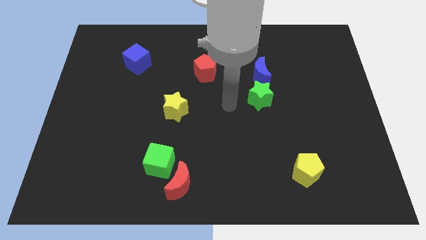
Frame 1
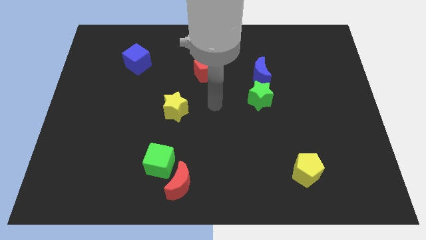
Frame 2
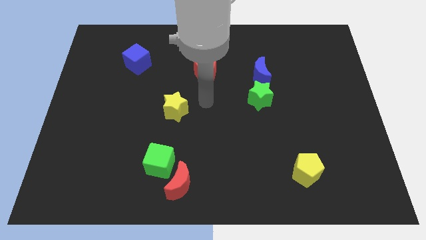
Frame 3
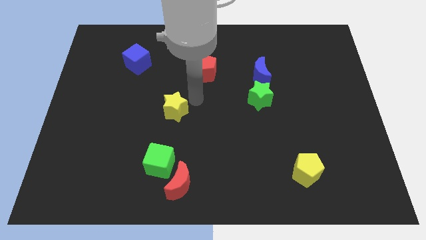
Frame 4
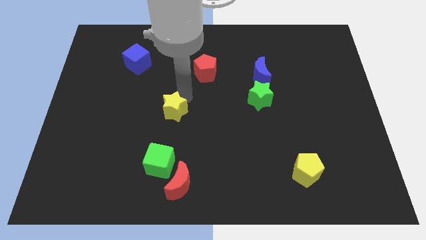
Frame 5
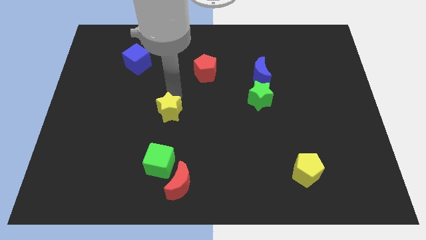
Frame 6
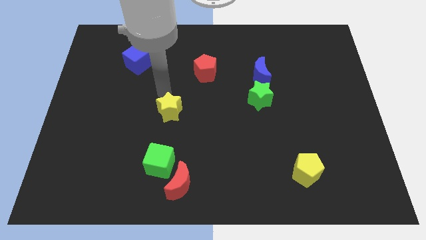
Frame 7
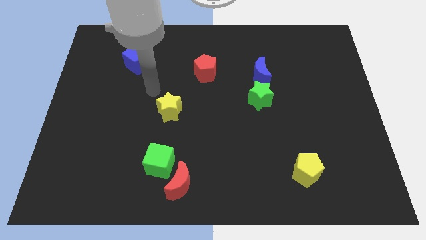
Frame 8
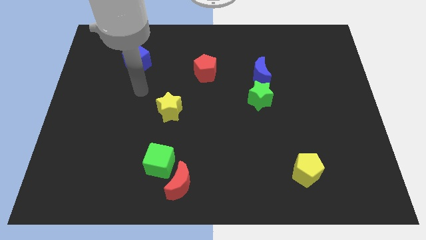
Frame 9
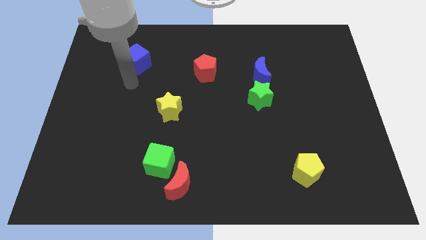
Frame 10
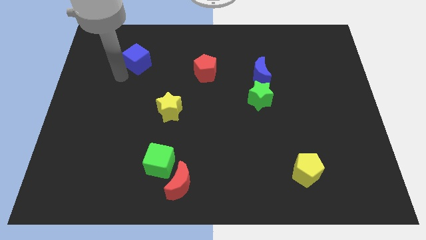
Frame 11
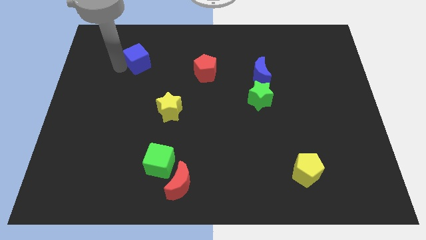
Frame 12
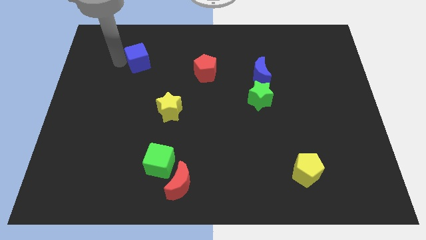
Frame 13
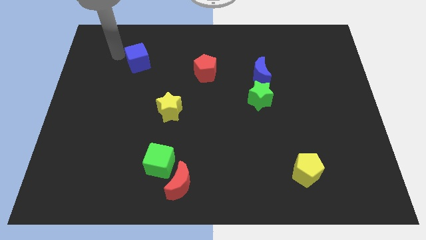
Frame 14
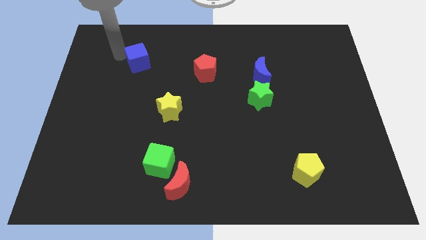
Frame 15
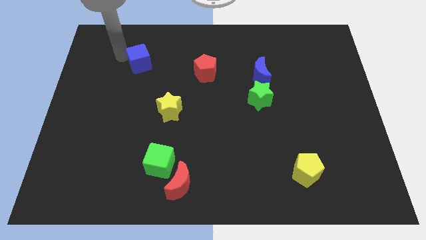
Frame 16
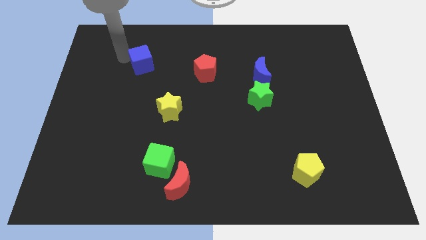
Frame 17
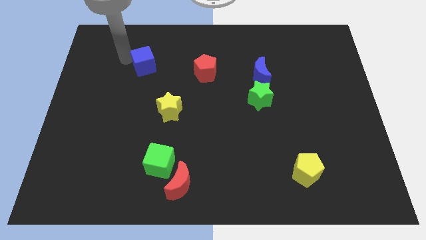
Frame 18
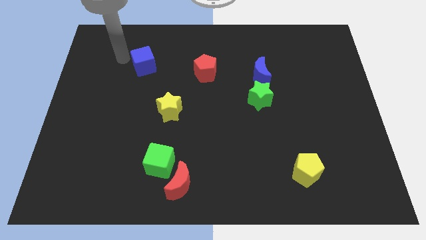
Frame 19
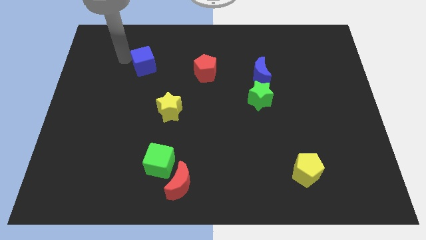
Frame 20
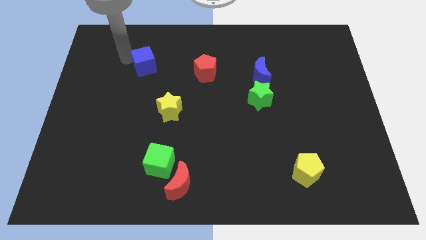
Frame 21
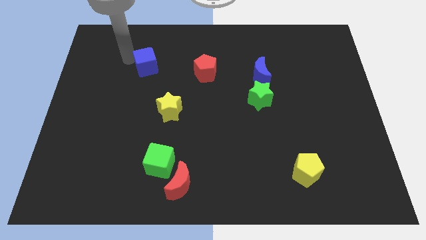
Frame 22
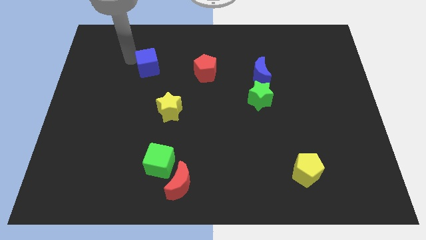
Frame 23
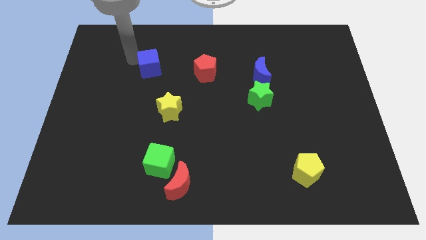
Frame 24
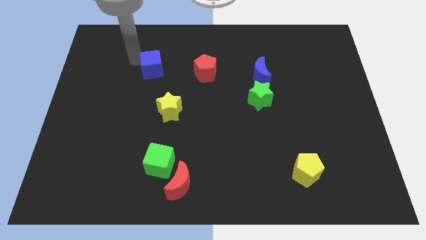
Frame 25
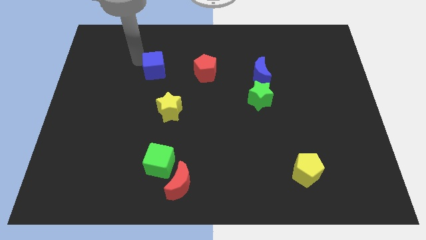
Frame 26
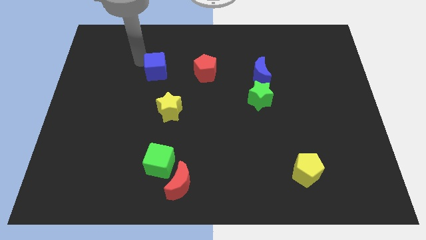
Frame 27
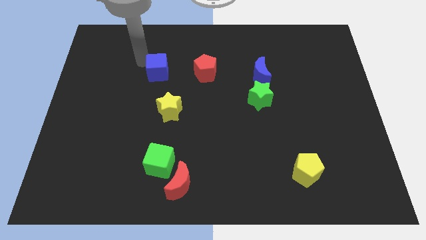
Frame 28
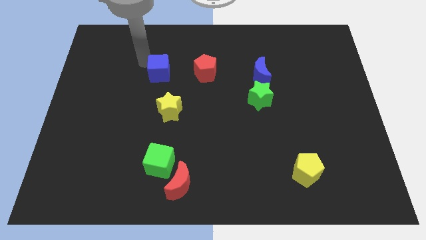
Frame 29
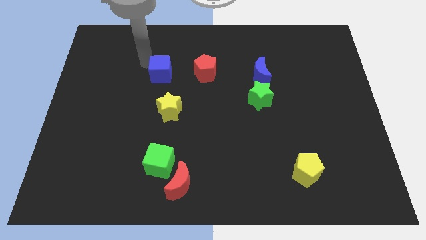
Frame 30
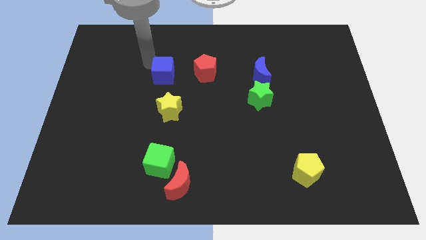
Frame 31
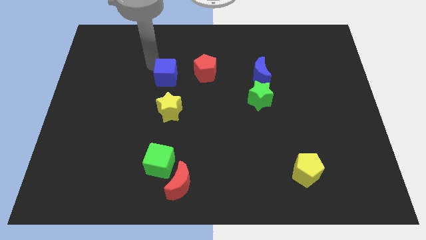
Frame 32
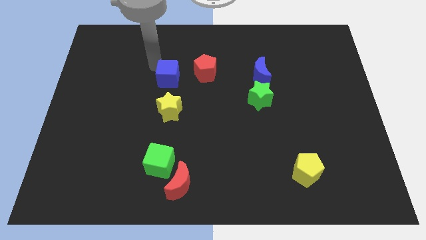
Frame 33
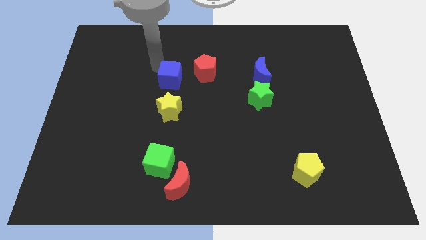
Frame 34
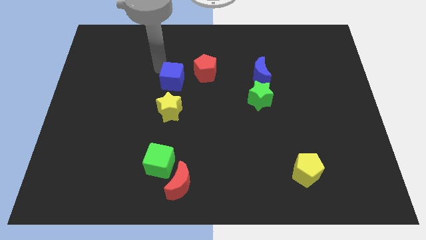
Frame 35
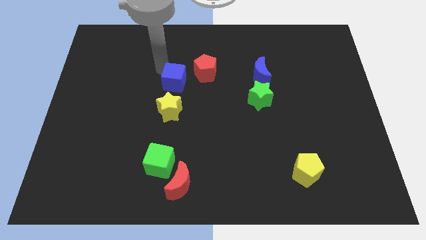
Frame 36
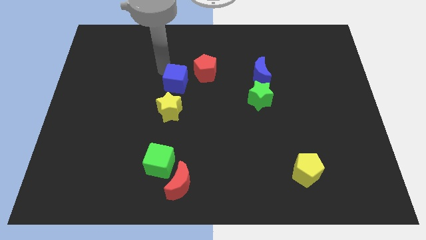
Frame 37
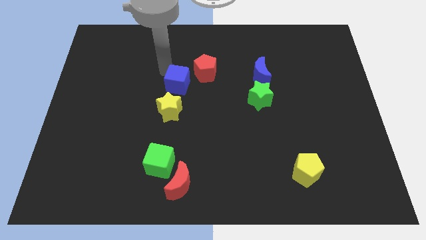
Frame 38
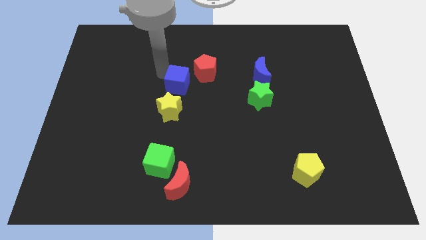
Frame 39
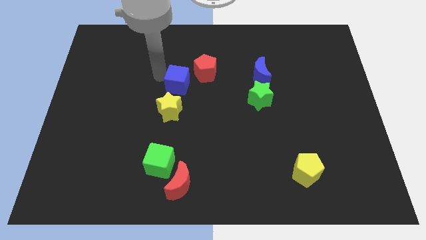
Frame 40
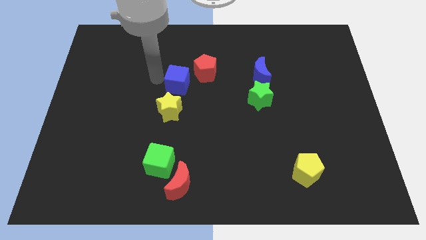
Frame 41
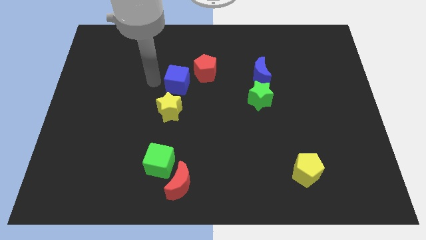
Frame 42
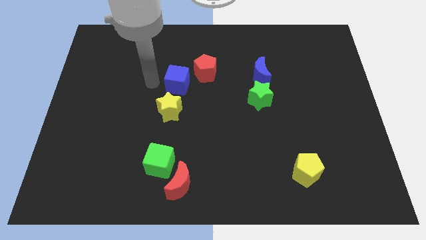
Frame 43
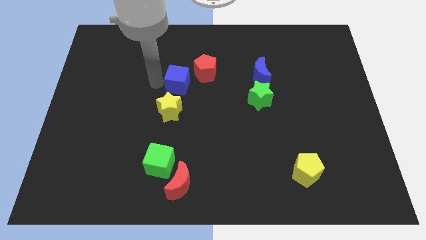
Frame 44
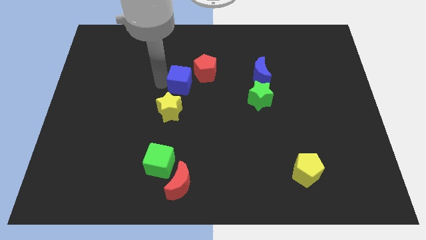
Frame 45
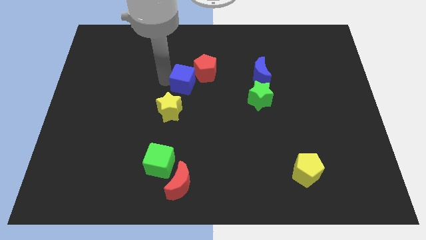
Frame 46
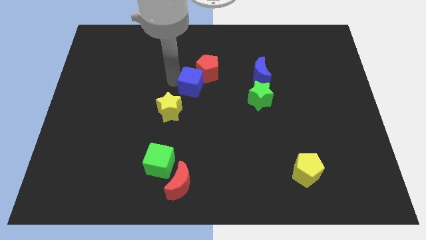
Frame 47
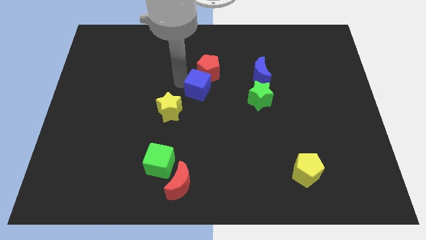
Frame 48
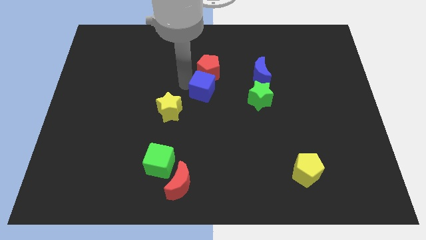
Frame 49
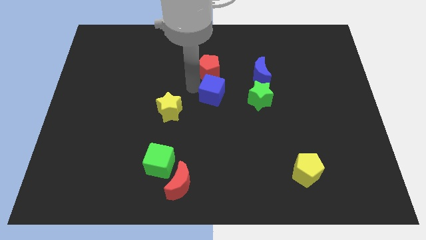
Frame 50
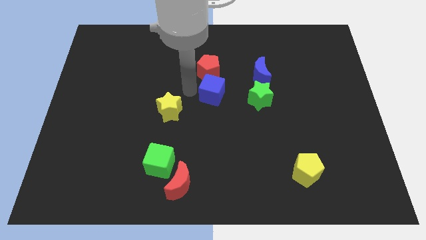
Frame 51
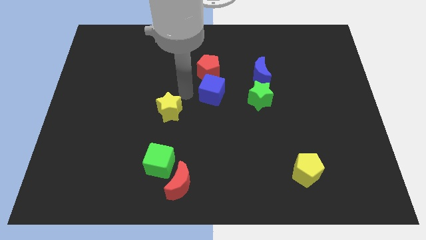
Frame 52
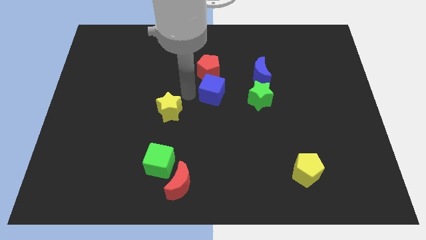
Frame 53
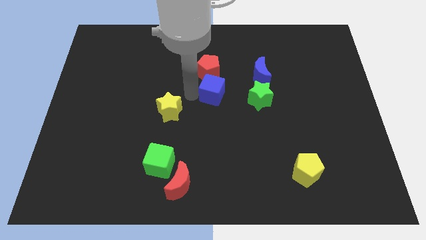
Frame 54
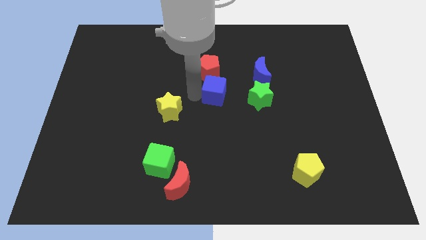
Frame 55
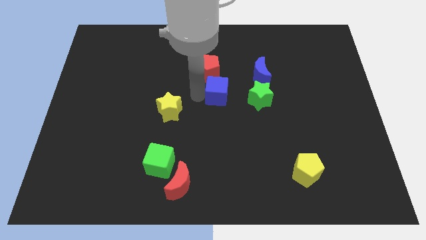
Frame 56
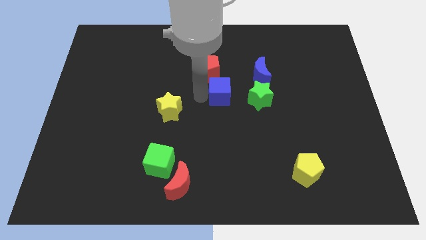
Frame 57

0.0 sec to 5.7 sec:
move the blue cube to the bottom left side of the blue moon

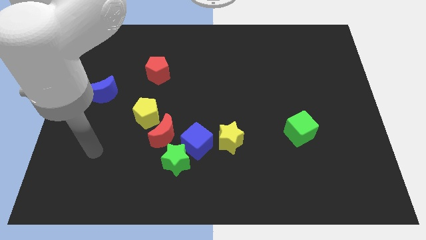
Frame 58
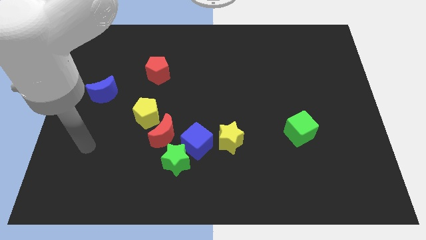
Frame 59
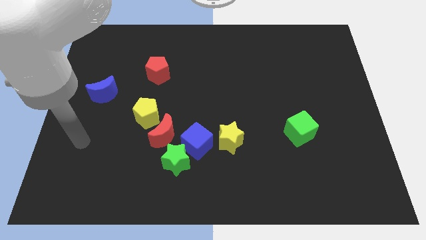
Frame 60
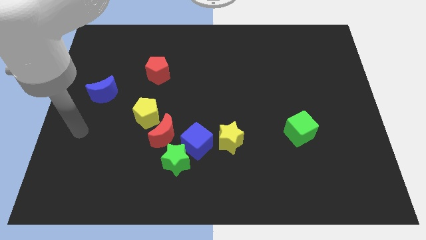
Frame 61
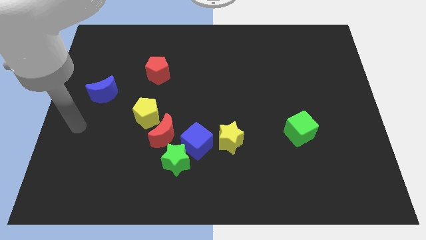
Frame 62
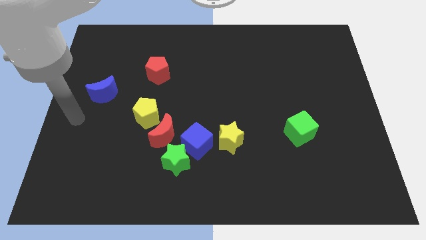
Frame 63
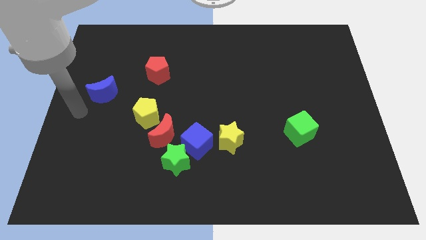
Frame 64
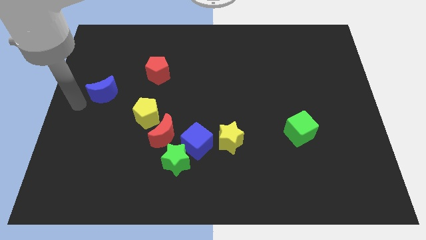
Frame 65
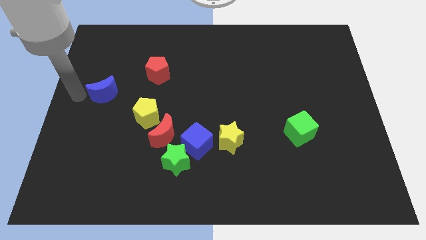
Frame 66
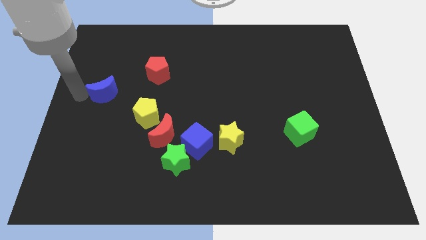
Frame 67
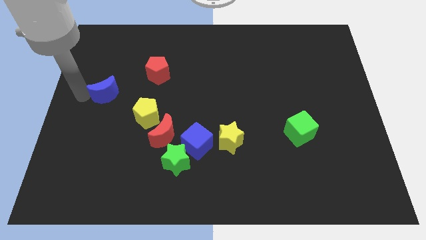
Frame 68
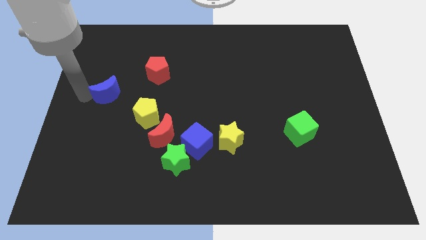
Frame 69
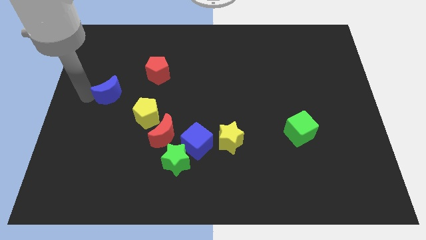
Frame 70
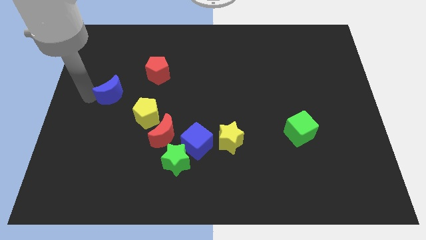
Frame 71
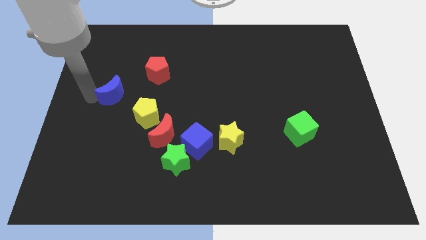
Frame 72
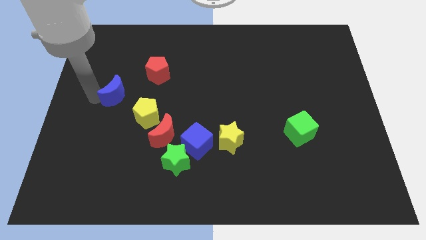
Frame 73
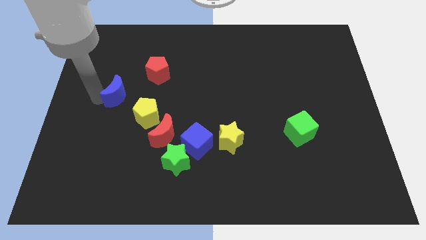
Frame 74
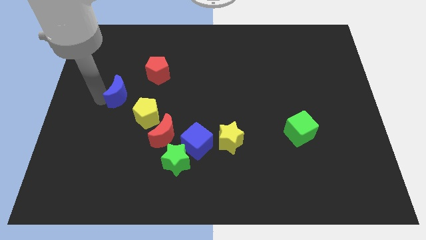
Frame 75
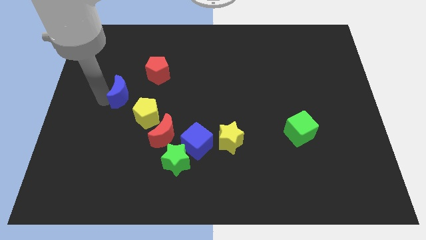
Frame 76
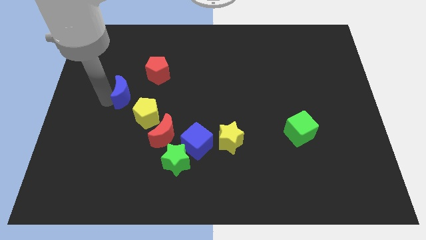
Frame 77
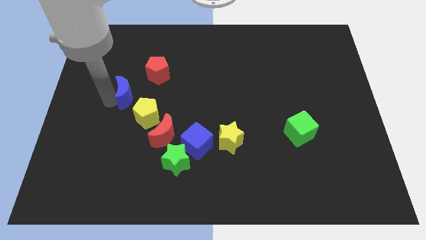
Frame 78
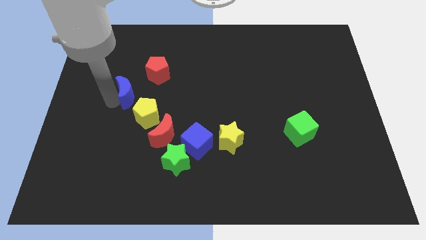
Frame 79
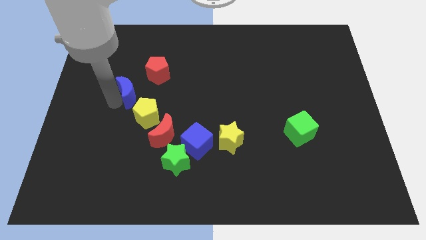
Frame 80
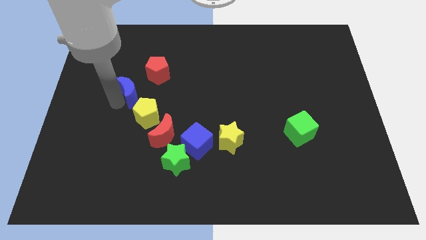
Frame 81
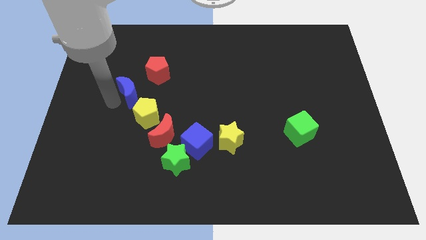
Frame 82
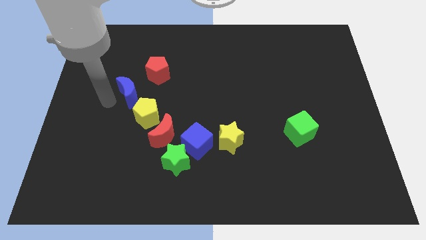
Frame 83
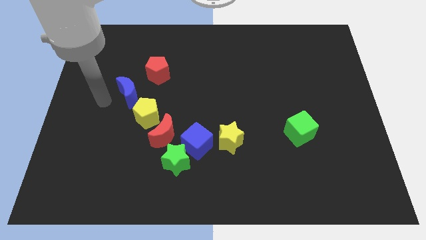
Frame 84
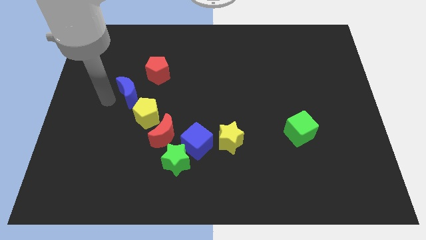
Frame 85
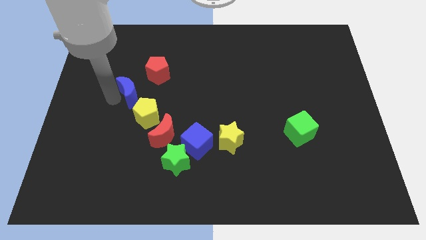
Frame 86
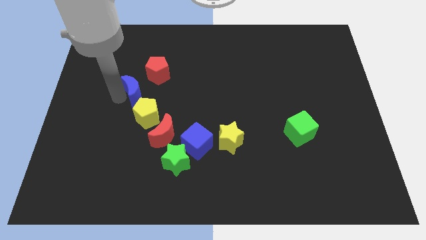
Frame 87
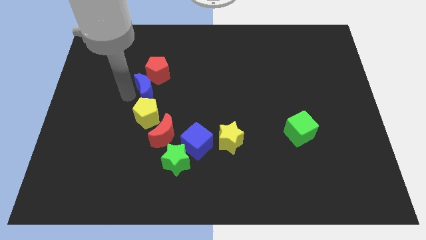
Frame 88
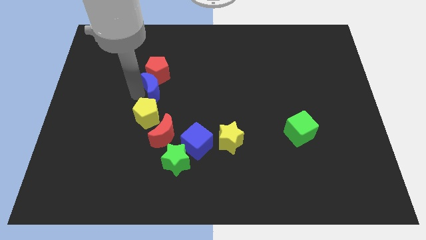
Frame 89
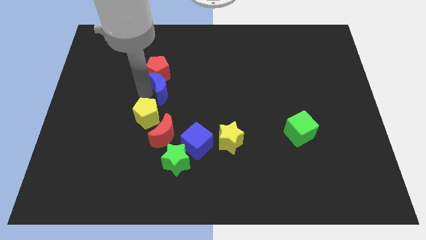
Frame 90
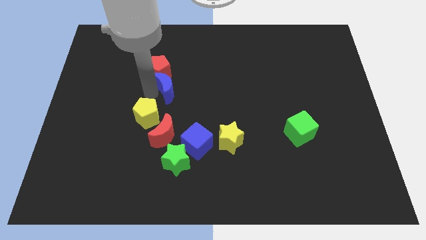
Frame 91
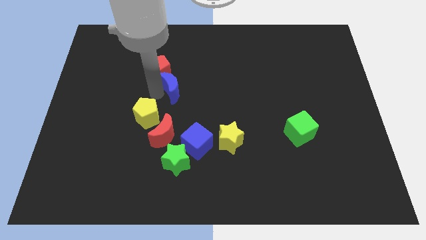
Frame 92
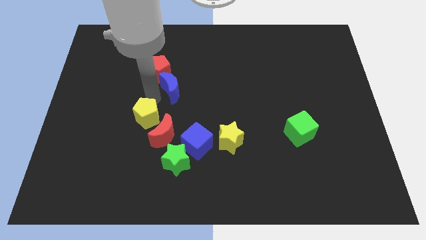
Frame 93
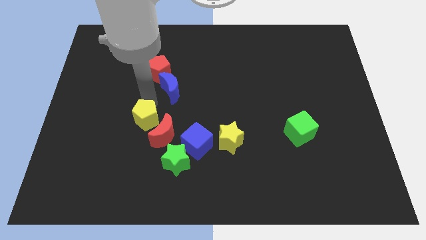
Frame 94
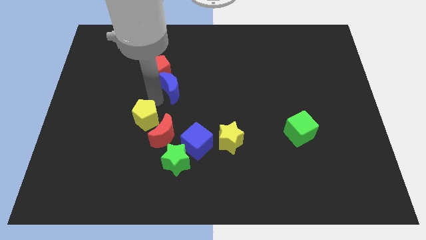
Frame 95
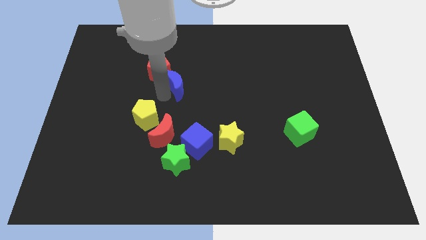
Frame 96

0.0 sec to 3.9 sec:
put the blue moon to the right of the red pentagon
